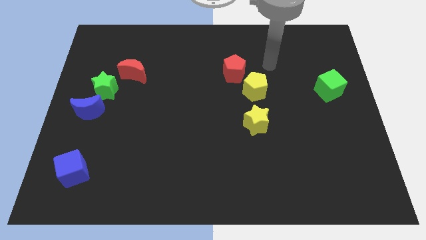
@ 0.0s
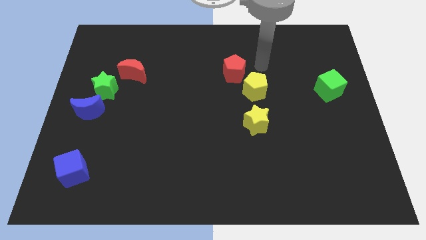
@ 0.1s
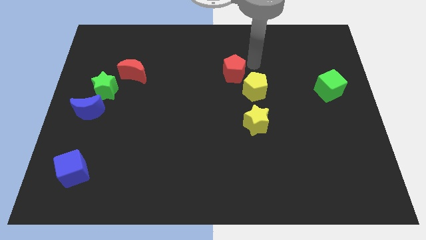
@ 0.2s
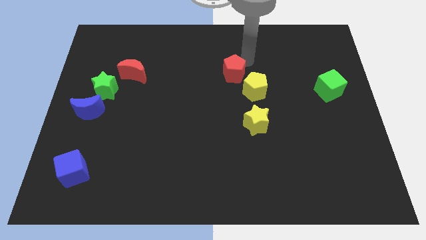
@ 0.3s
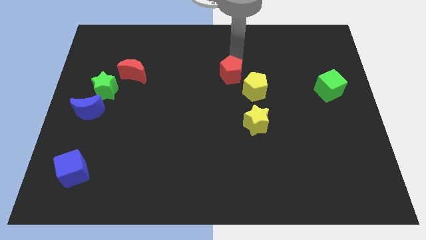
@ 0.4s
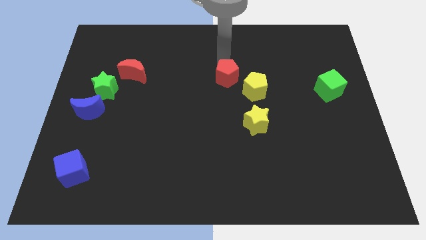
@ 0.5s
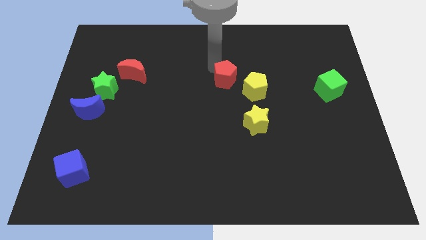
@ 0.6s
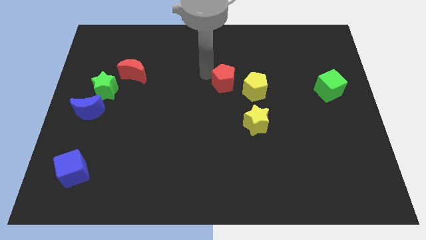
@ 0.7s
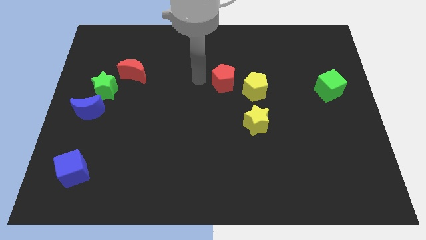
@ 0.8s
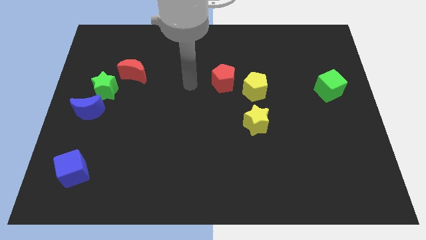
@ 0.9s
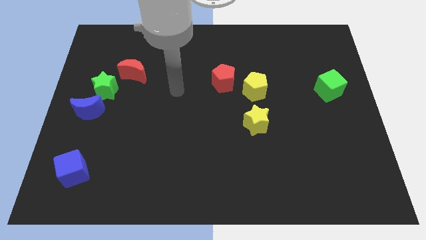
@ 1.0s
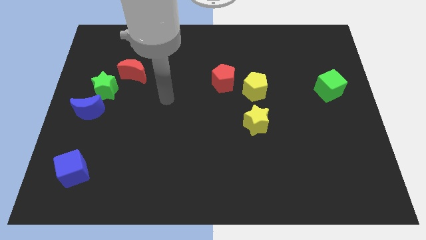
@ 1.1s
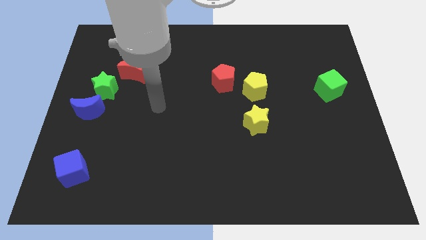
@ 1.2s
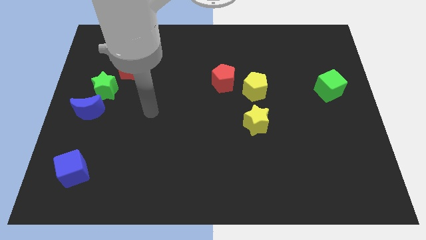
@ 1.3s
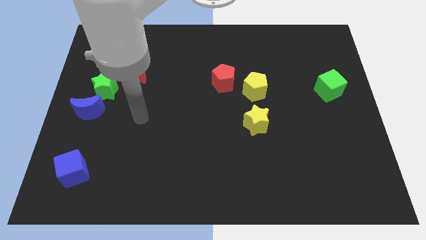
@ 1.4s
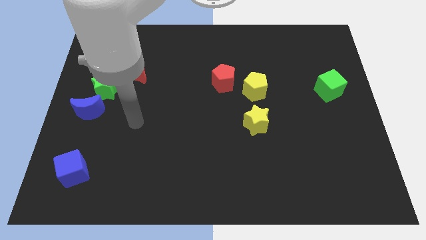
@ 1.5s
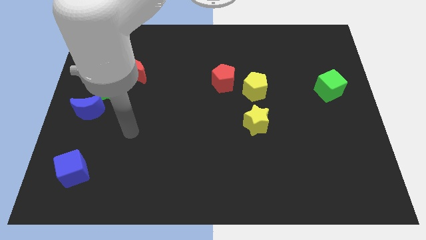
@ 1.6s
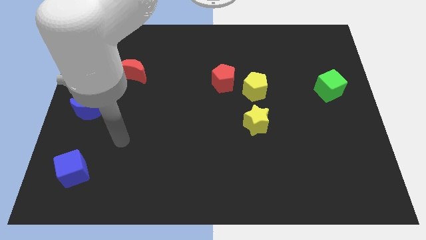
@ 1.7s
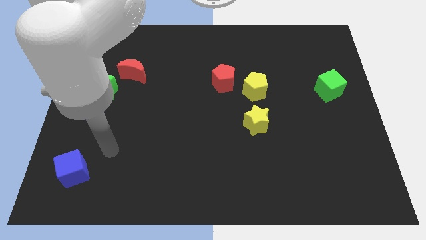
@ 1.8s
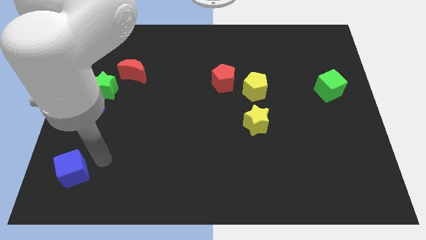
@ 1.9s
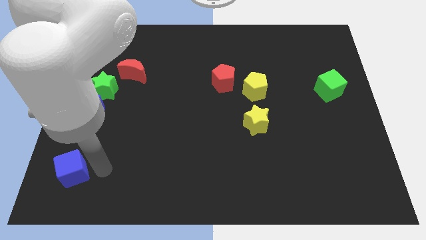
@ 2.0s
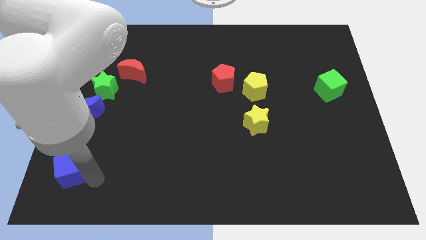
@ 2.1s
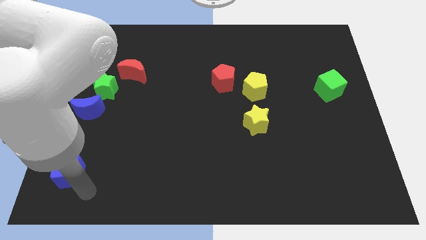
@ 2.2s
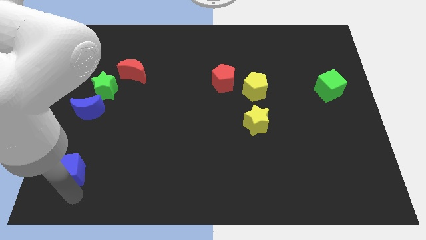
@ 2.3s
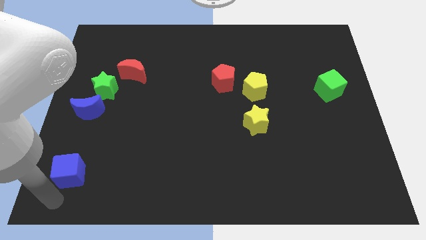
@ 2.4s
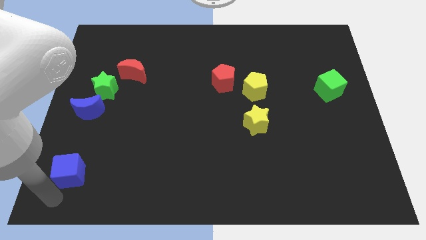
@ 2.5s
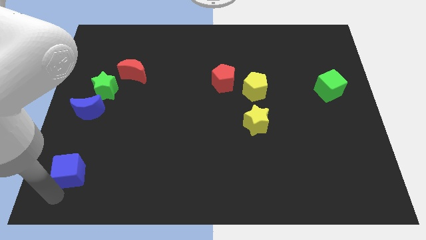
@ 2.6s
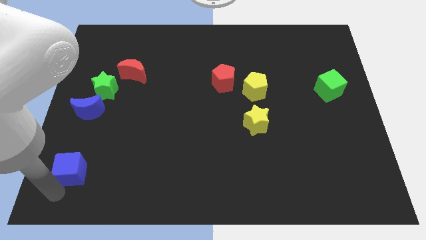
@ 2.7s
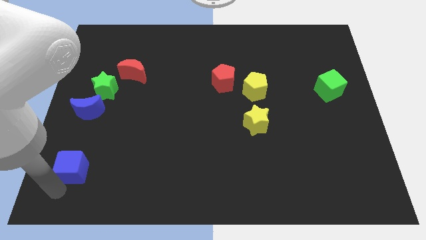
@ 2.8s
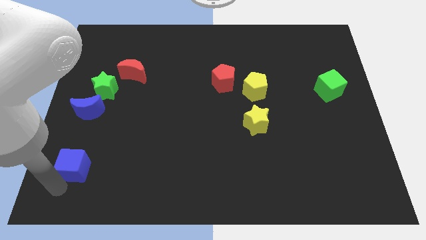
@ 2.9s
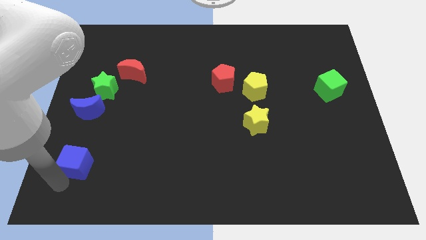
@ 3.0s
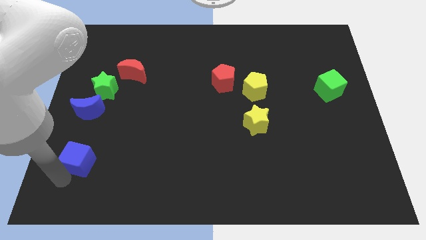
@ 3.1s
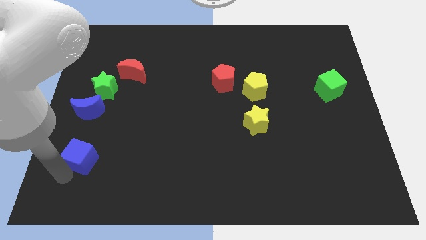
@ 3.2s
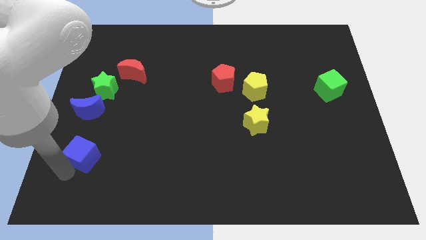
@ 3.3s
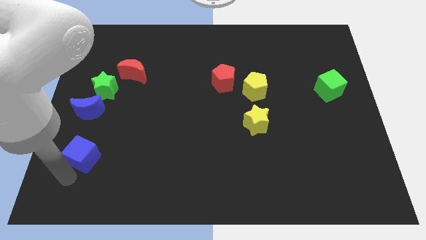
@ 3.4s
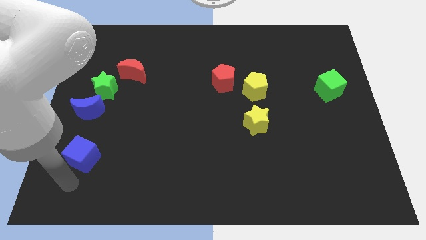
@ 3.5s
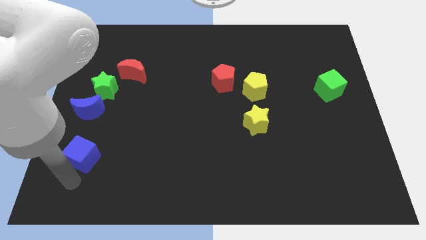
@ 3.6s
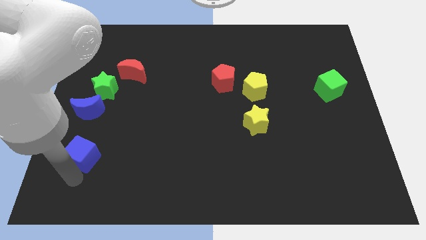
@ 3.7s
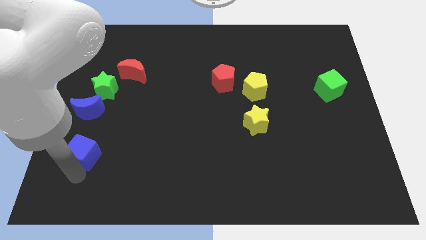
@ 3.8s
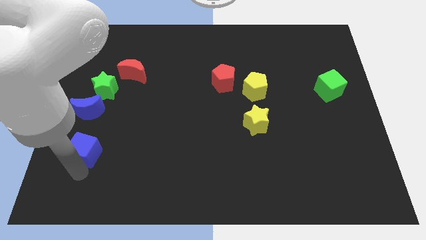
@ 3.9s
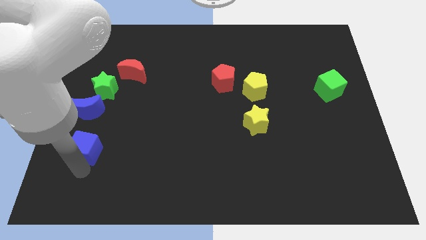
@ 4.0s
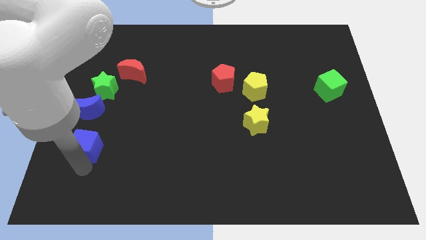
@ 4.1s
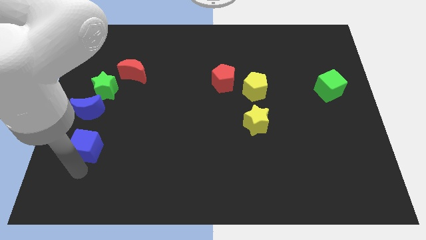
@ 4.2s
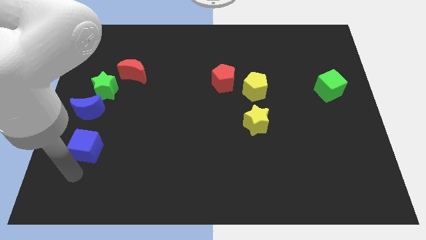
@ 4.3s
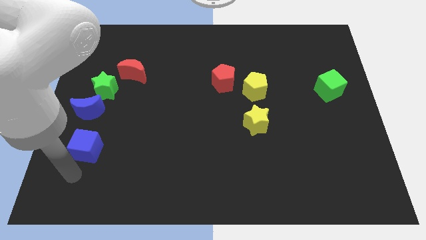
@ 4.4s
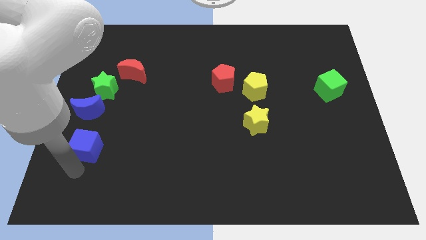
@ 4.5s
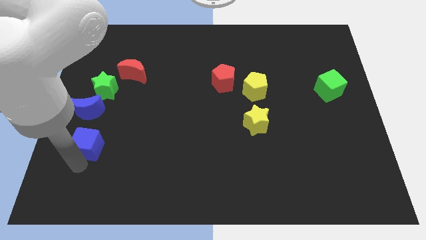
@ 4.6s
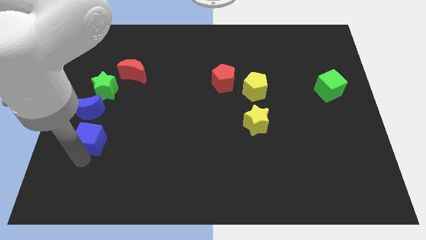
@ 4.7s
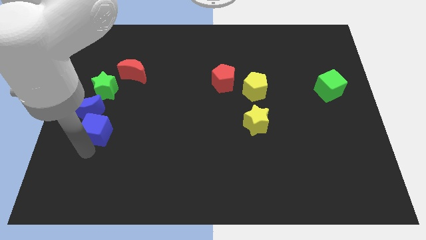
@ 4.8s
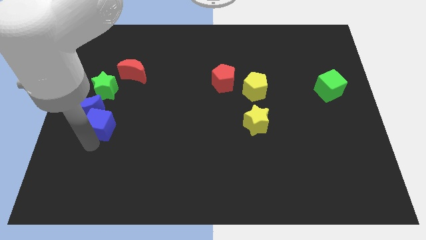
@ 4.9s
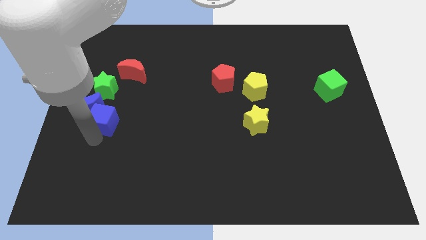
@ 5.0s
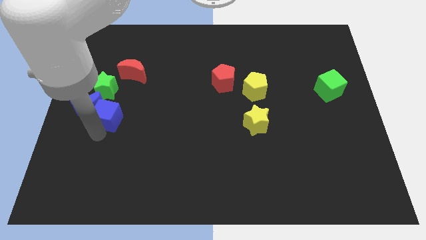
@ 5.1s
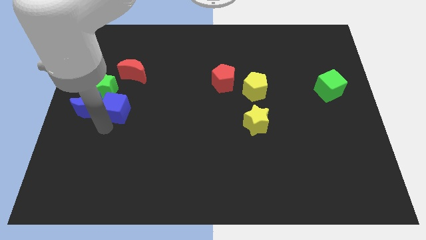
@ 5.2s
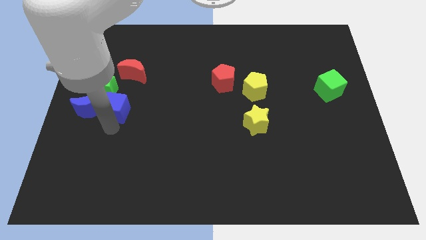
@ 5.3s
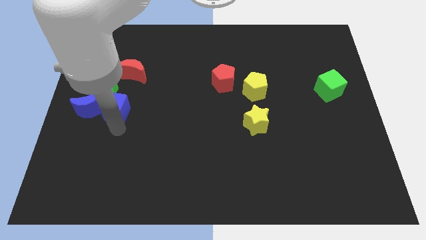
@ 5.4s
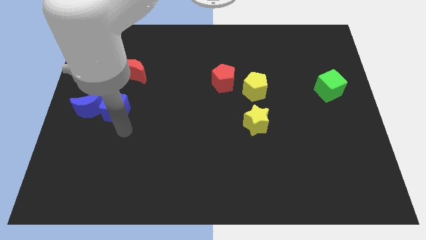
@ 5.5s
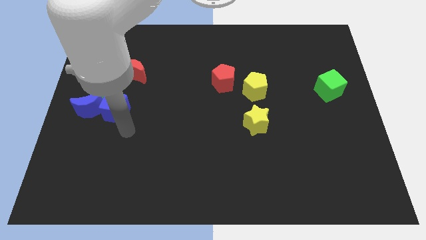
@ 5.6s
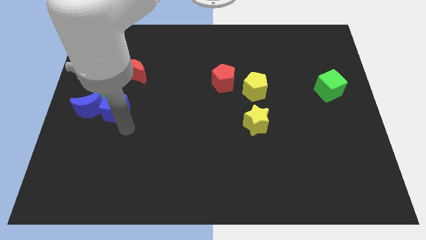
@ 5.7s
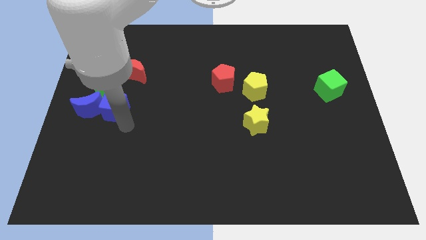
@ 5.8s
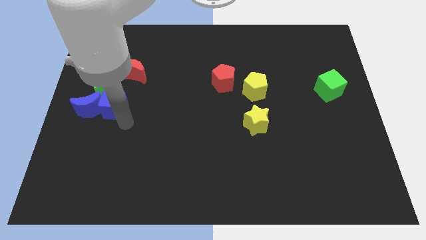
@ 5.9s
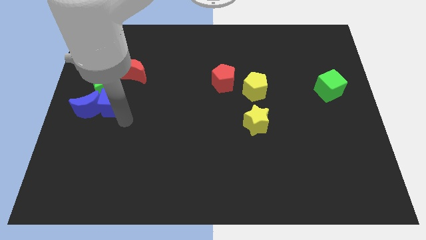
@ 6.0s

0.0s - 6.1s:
slide the blue cube next to the green star

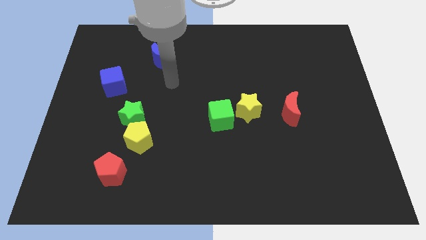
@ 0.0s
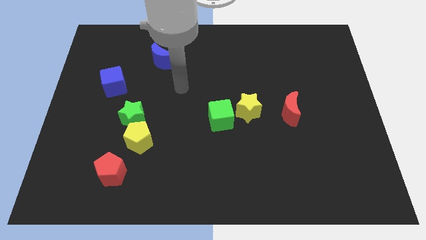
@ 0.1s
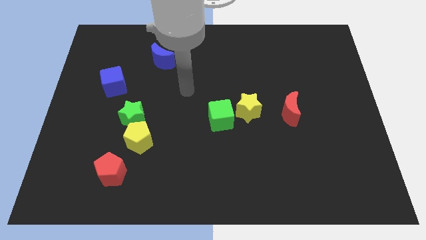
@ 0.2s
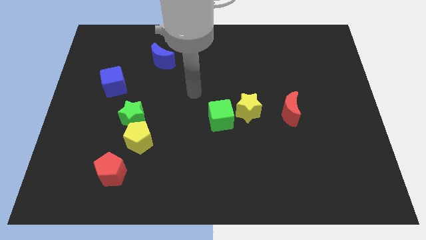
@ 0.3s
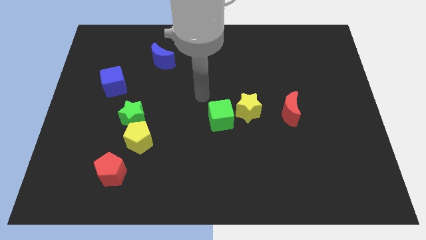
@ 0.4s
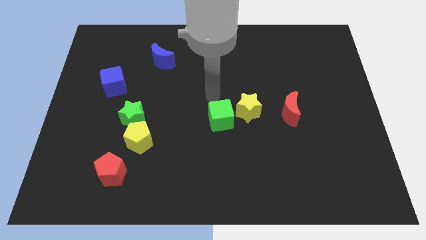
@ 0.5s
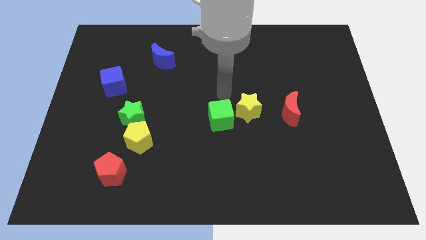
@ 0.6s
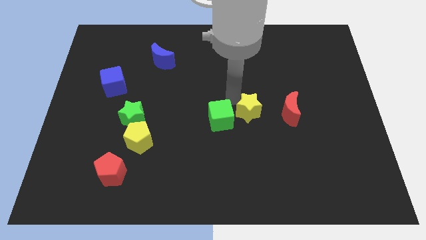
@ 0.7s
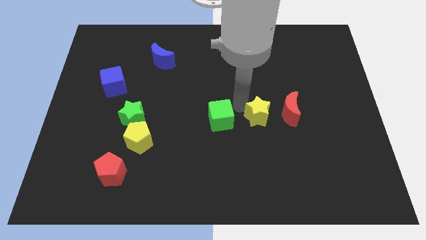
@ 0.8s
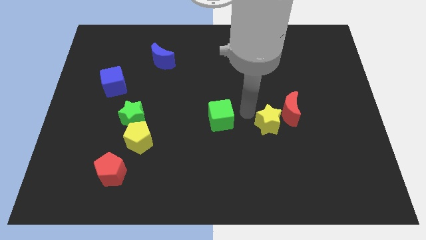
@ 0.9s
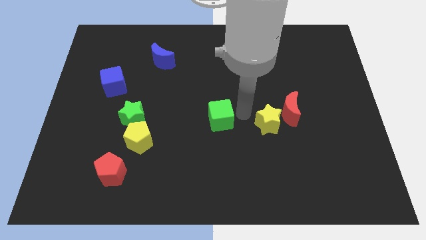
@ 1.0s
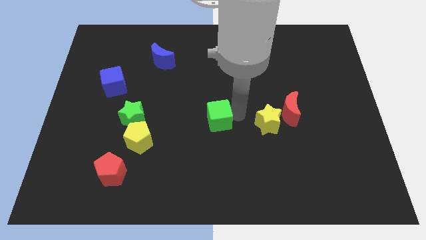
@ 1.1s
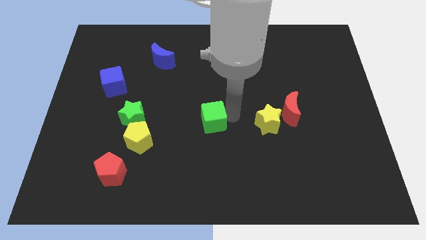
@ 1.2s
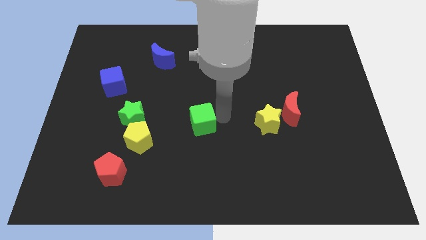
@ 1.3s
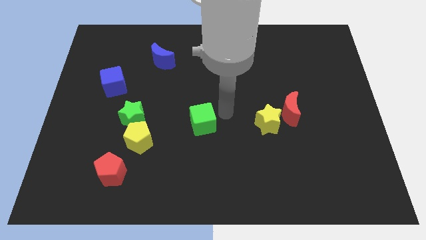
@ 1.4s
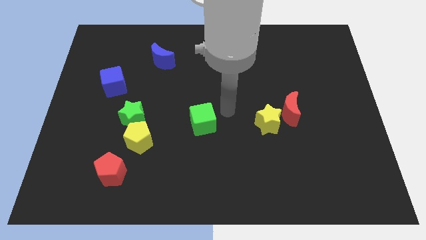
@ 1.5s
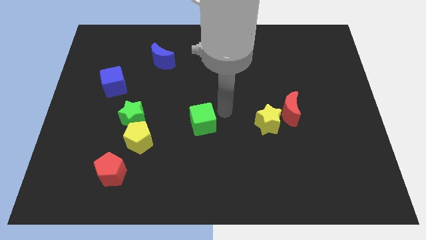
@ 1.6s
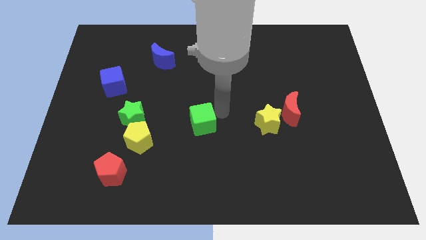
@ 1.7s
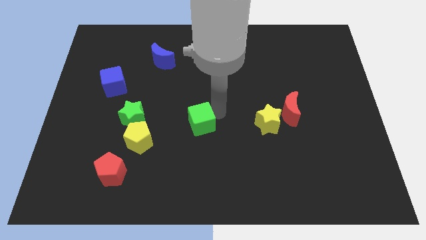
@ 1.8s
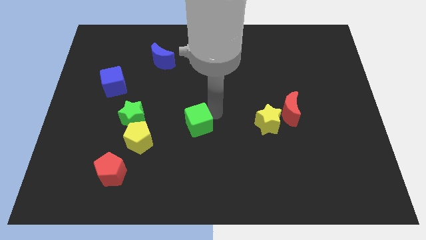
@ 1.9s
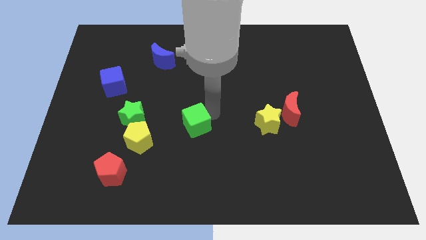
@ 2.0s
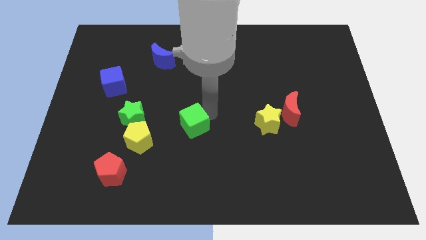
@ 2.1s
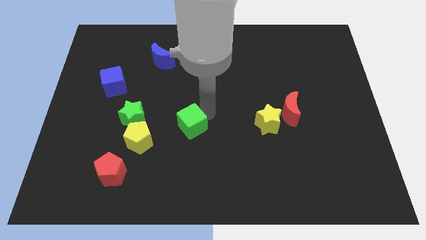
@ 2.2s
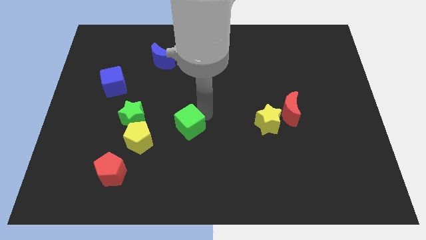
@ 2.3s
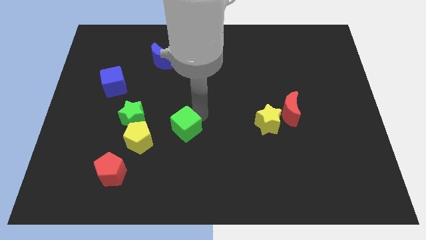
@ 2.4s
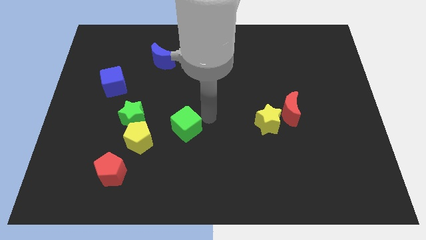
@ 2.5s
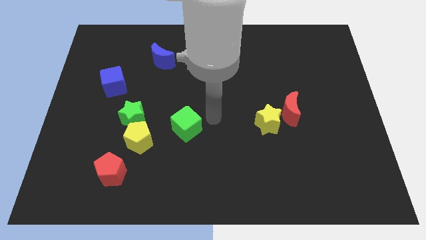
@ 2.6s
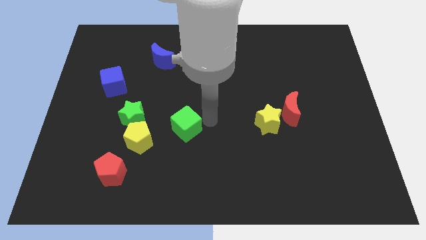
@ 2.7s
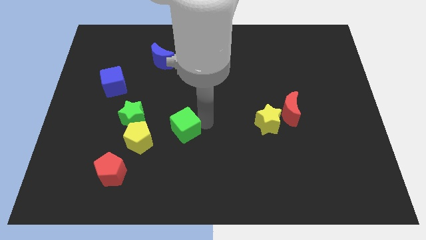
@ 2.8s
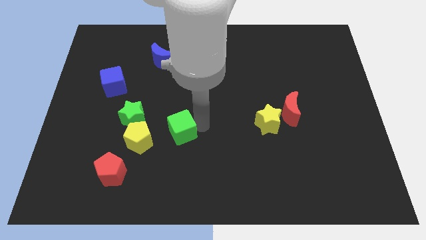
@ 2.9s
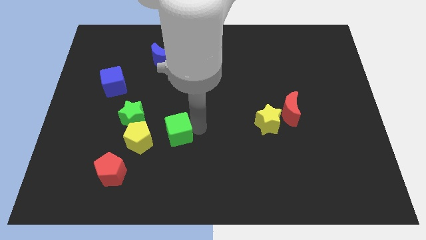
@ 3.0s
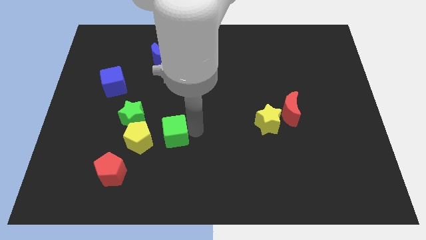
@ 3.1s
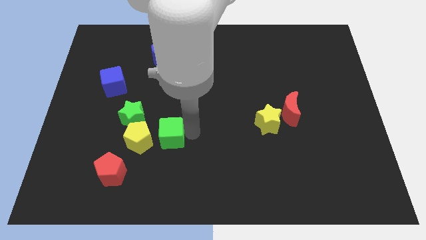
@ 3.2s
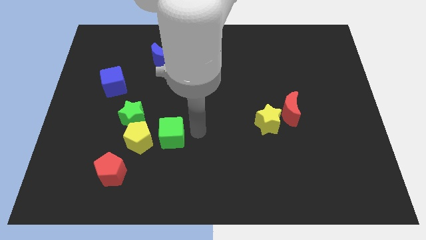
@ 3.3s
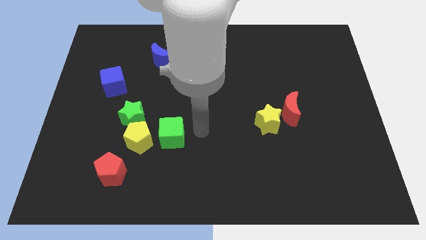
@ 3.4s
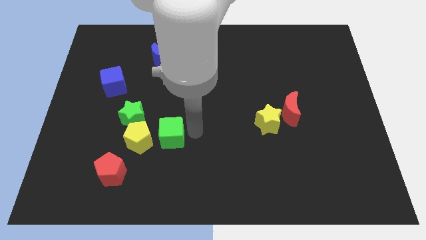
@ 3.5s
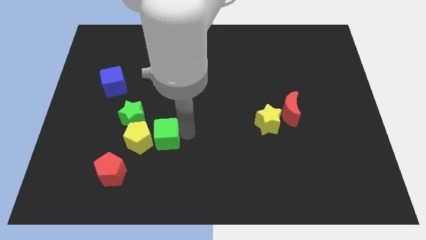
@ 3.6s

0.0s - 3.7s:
push the green cube next to the yellow pentagon
